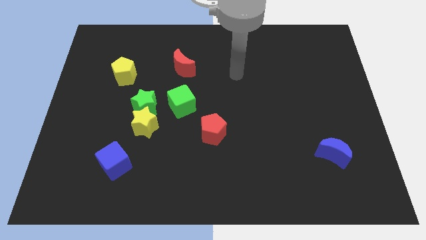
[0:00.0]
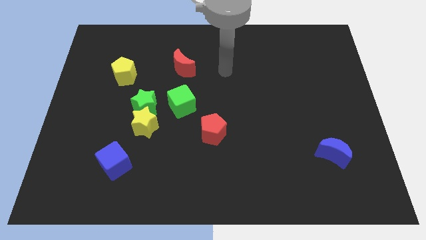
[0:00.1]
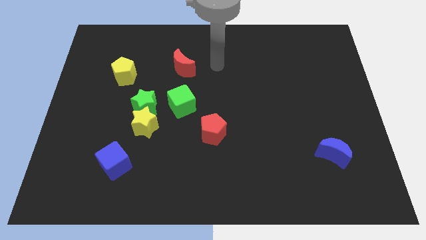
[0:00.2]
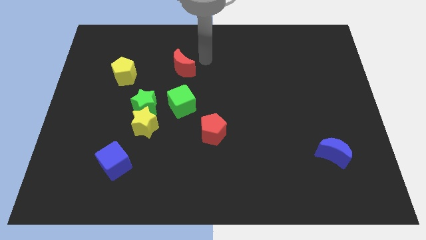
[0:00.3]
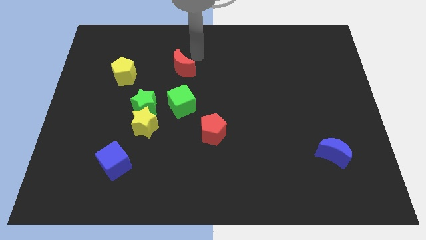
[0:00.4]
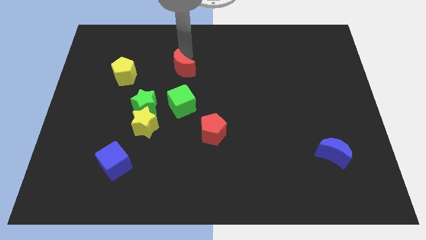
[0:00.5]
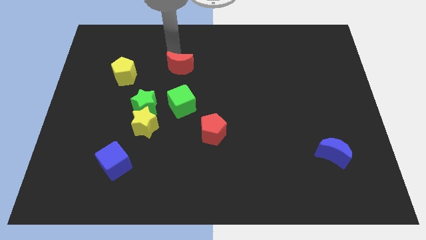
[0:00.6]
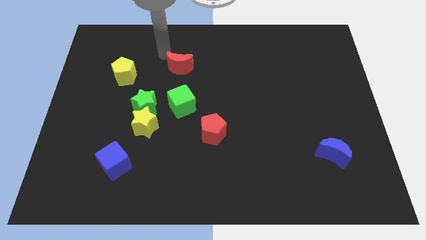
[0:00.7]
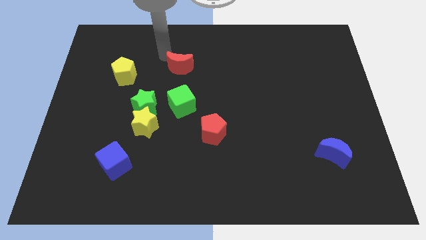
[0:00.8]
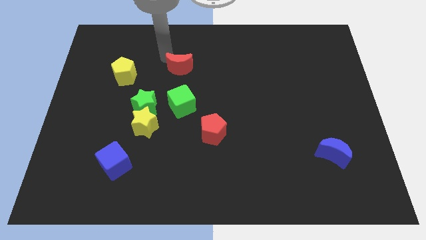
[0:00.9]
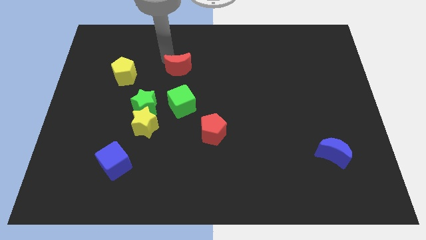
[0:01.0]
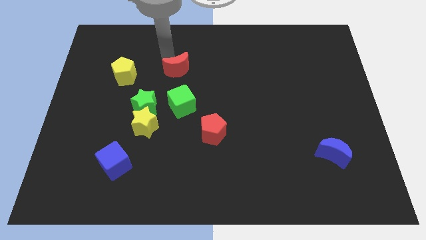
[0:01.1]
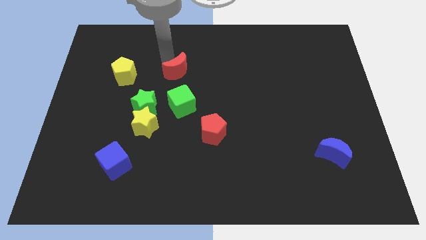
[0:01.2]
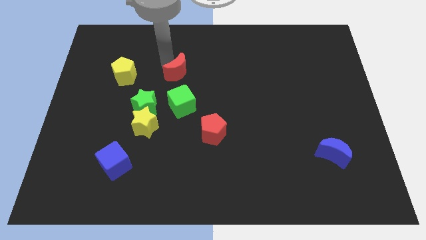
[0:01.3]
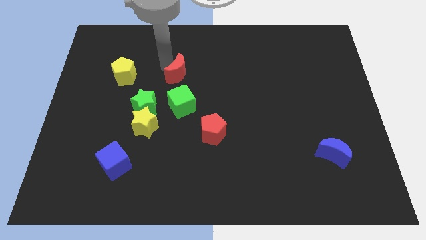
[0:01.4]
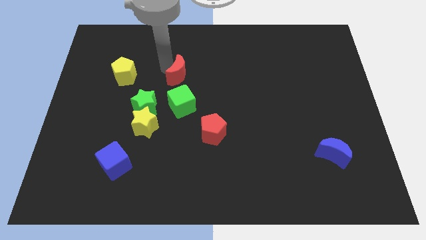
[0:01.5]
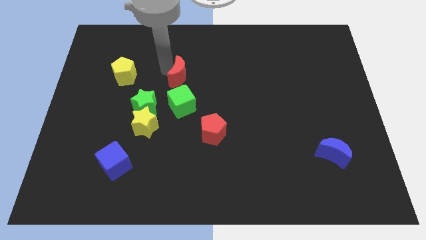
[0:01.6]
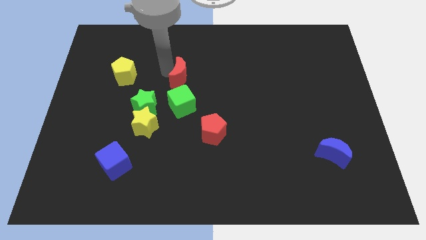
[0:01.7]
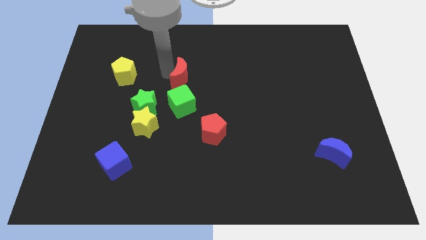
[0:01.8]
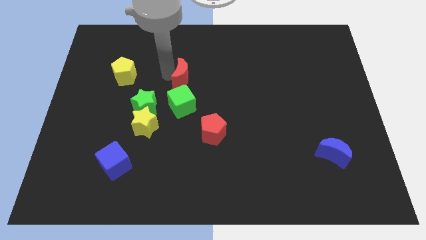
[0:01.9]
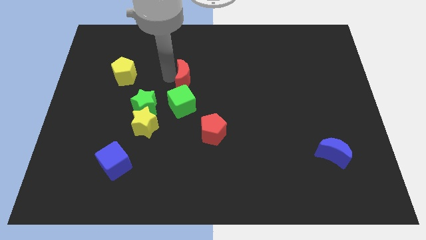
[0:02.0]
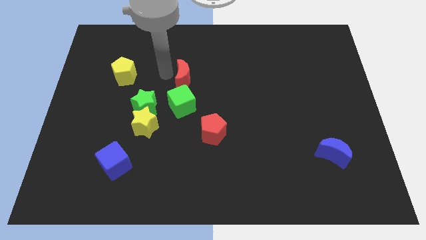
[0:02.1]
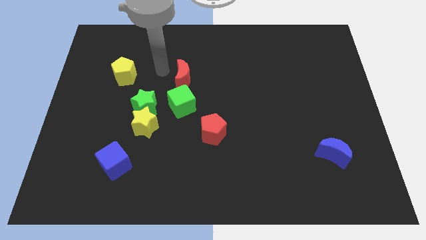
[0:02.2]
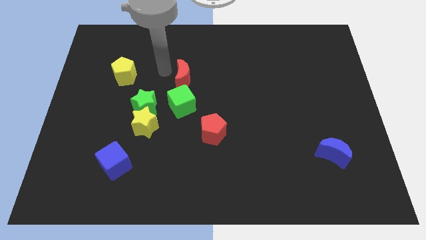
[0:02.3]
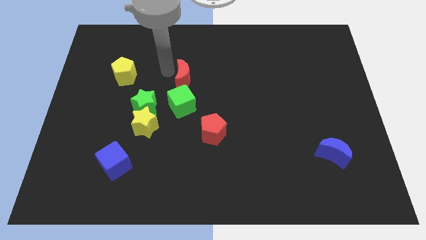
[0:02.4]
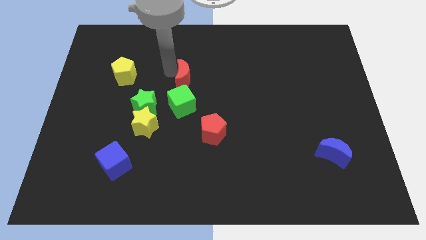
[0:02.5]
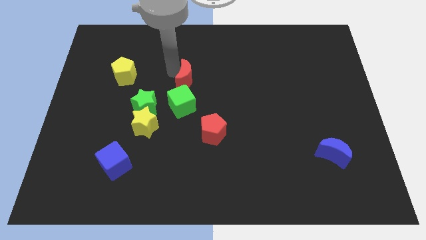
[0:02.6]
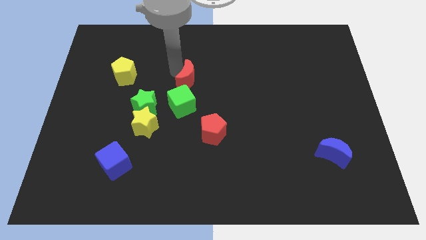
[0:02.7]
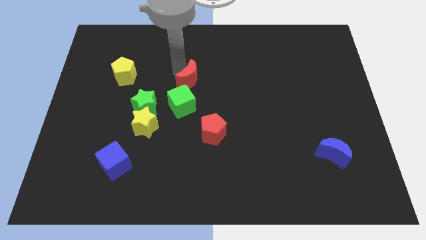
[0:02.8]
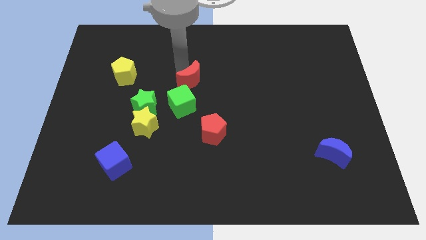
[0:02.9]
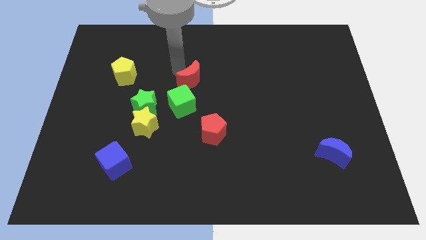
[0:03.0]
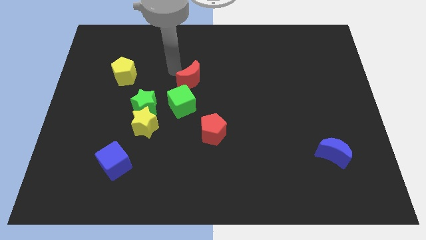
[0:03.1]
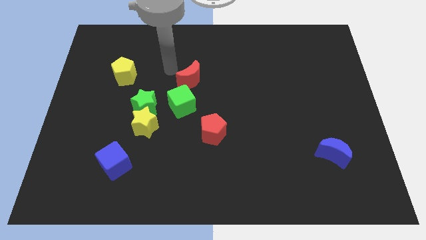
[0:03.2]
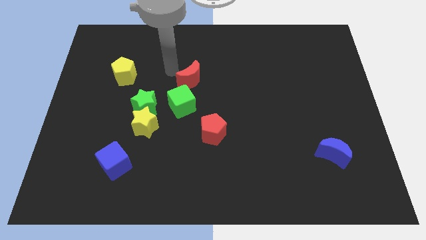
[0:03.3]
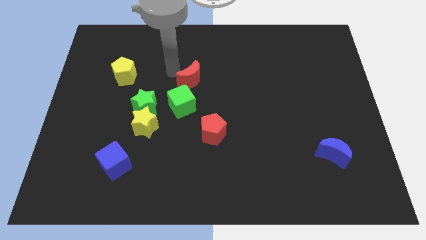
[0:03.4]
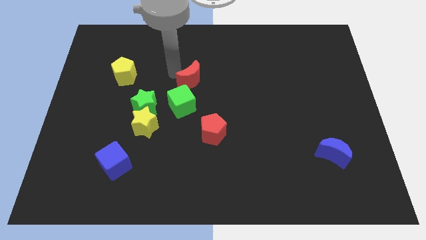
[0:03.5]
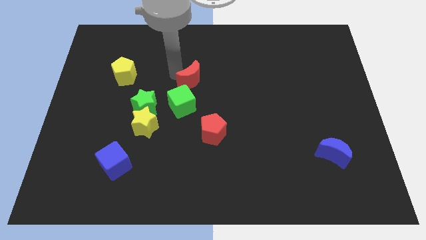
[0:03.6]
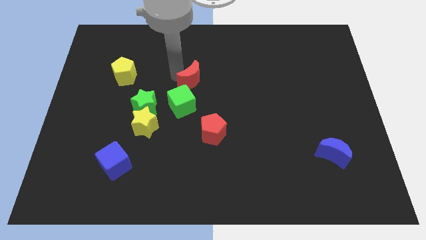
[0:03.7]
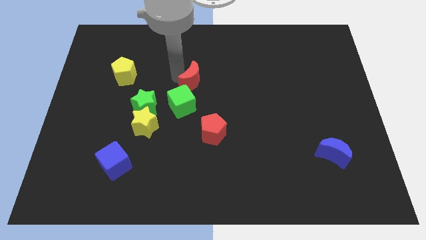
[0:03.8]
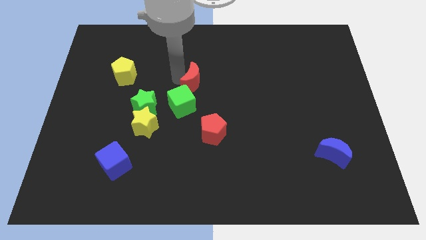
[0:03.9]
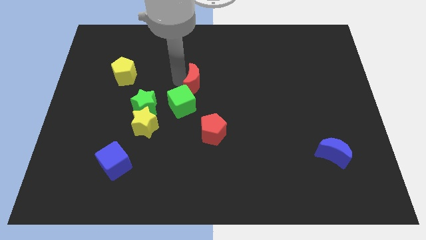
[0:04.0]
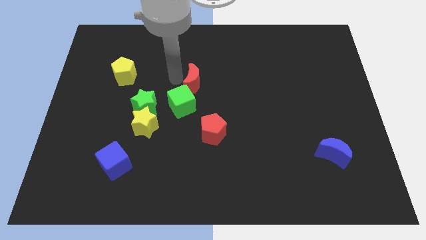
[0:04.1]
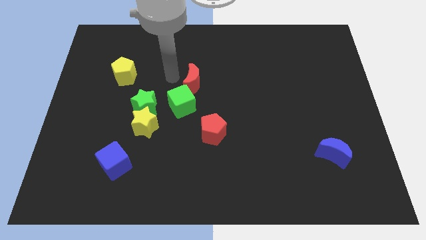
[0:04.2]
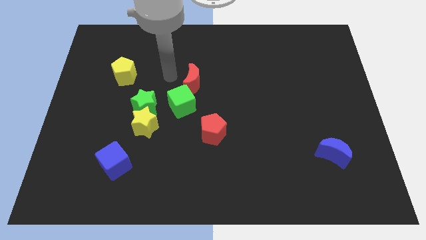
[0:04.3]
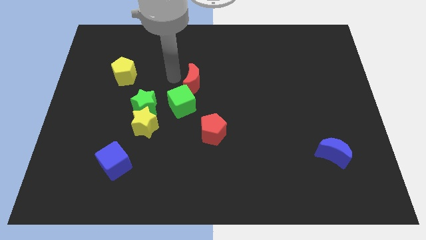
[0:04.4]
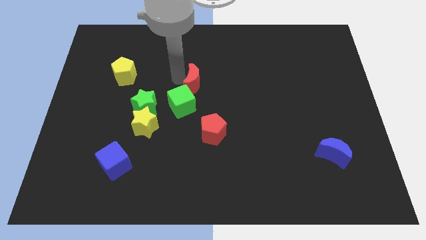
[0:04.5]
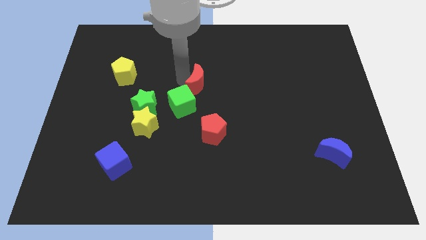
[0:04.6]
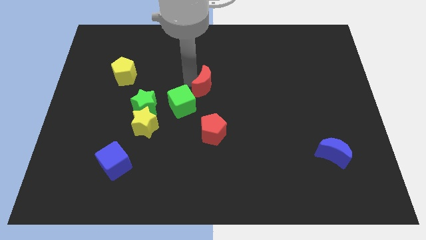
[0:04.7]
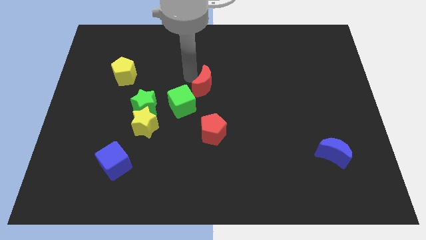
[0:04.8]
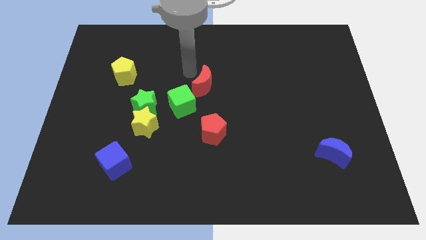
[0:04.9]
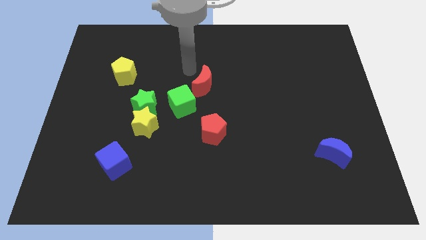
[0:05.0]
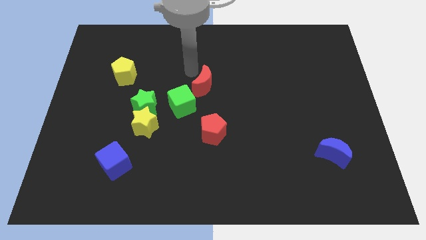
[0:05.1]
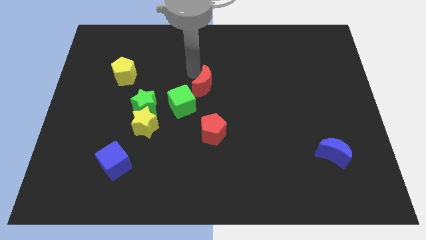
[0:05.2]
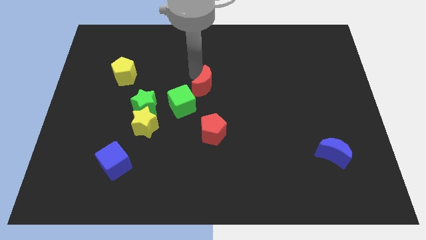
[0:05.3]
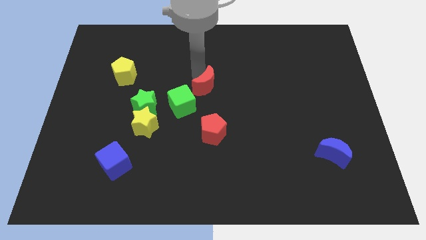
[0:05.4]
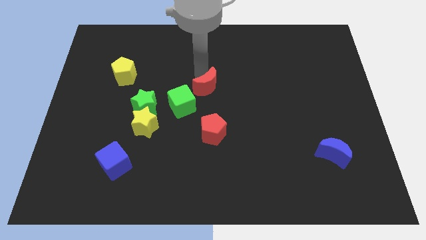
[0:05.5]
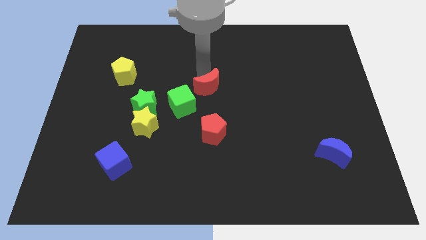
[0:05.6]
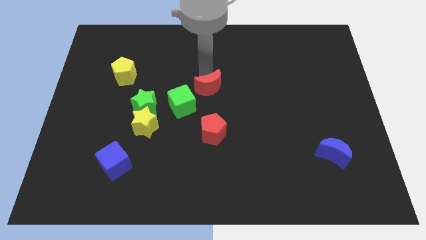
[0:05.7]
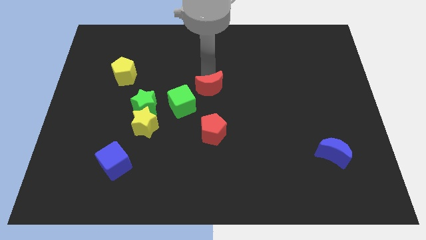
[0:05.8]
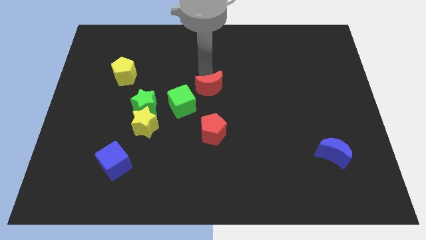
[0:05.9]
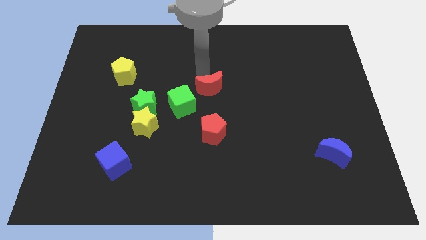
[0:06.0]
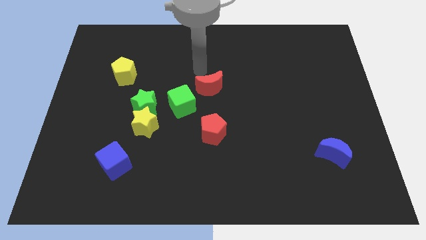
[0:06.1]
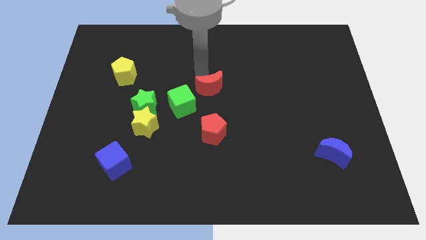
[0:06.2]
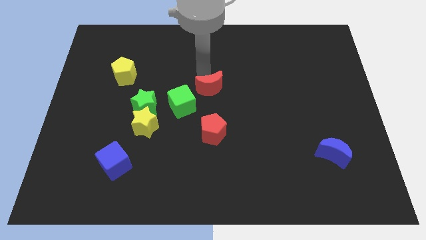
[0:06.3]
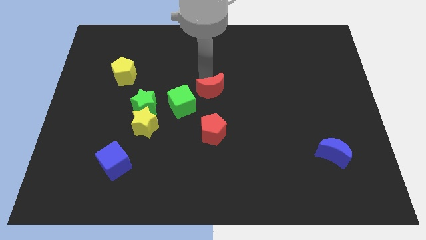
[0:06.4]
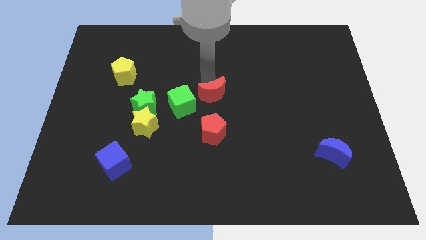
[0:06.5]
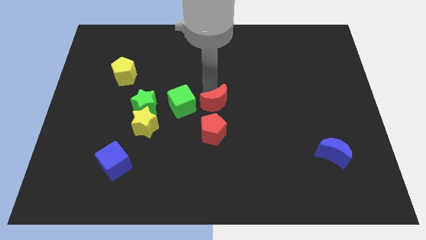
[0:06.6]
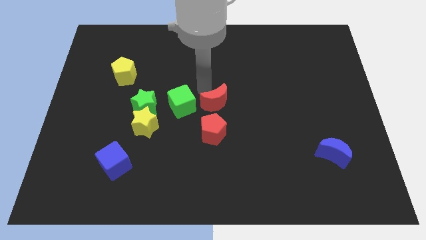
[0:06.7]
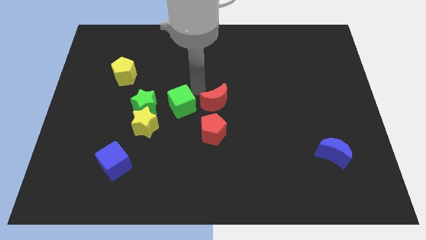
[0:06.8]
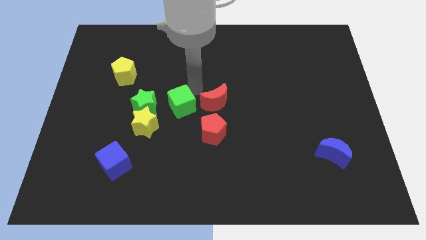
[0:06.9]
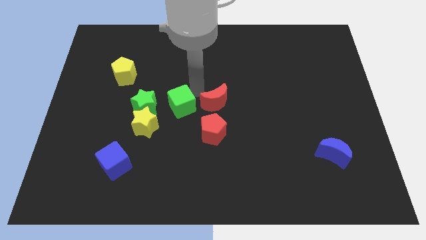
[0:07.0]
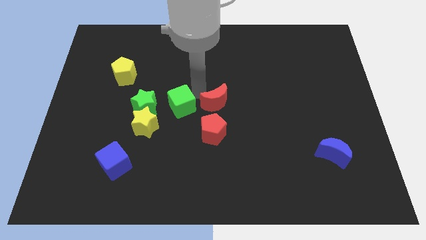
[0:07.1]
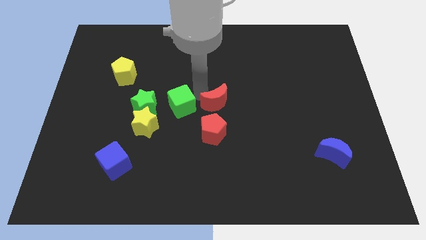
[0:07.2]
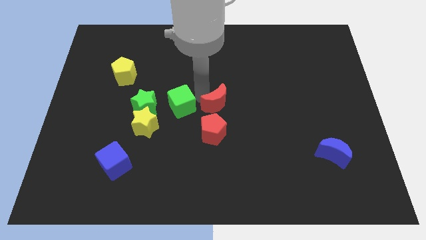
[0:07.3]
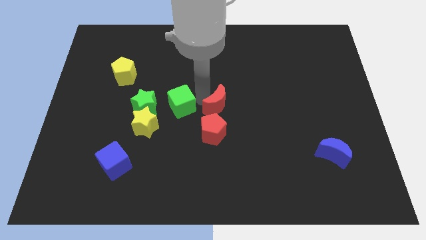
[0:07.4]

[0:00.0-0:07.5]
push the red moon to the top right side of the red pentagon

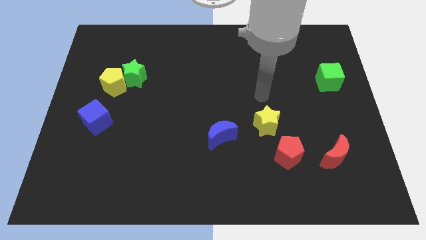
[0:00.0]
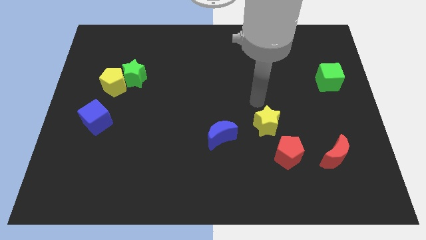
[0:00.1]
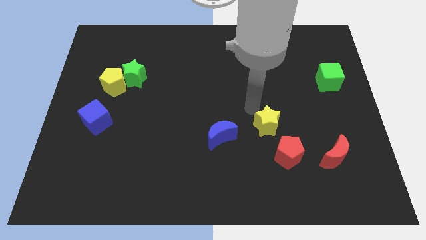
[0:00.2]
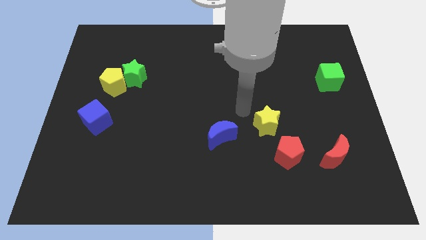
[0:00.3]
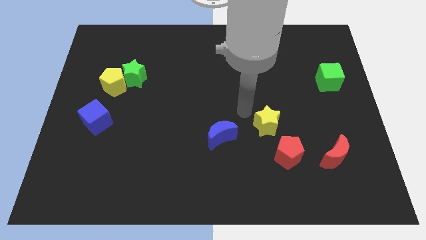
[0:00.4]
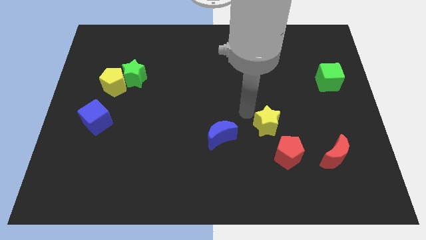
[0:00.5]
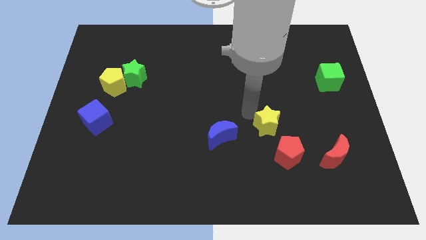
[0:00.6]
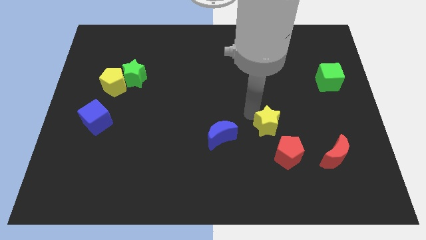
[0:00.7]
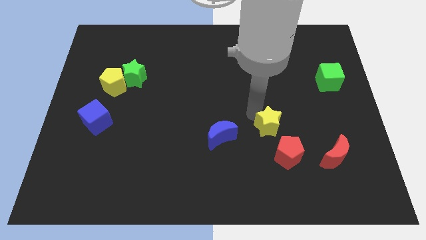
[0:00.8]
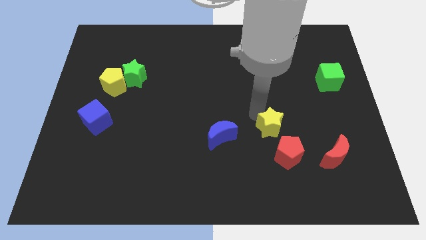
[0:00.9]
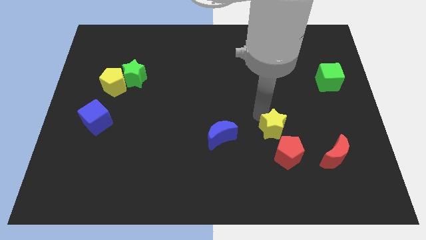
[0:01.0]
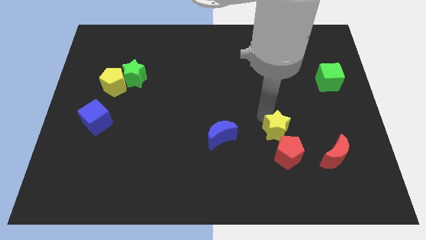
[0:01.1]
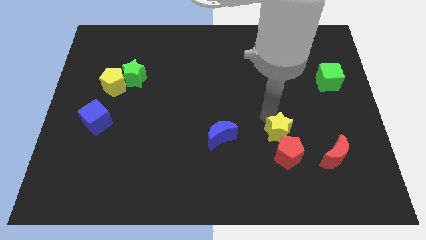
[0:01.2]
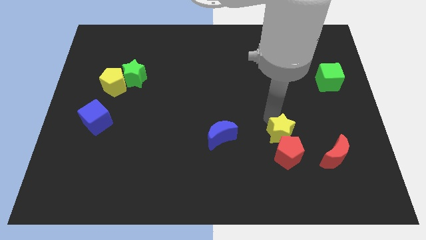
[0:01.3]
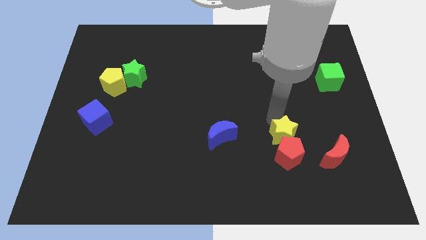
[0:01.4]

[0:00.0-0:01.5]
move the yellow star to the top left side of the red moon
